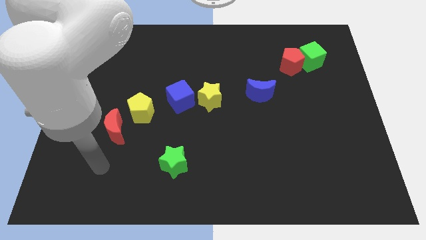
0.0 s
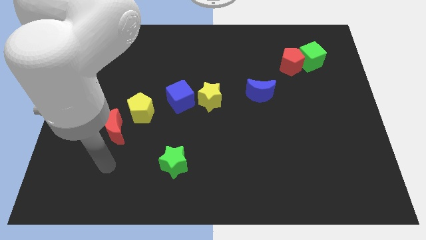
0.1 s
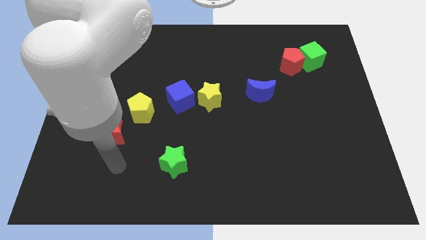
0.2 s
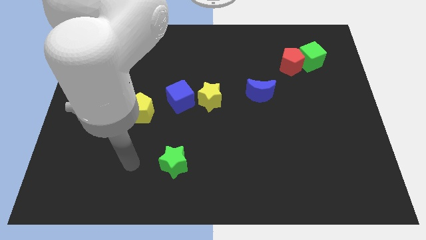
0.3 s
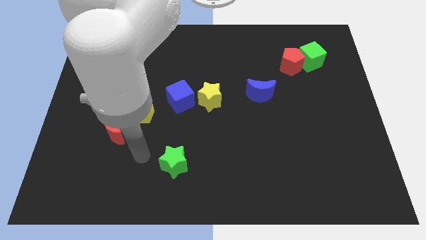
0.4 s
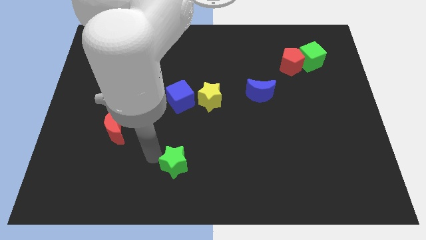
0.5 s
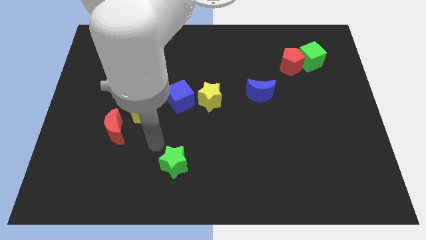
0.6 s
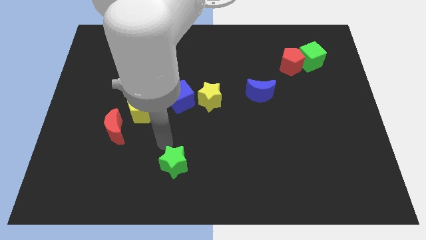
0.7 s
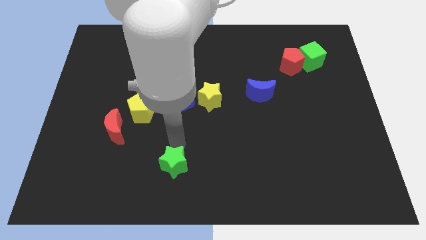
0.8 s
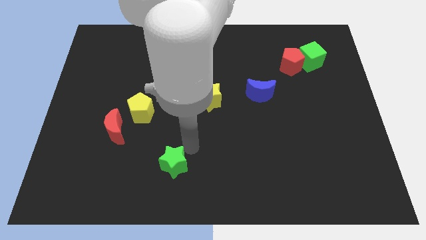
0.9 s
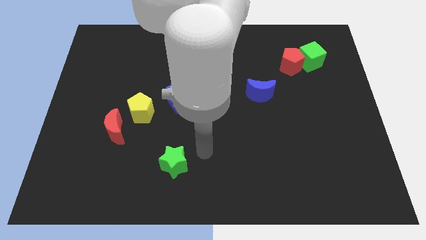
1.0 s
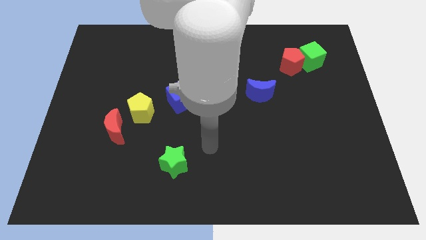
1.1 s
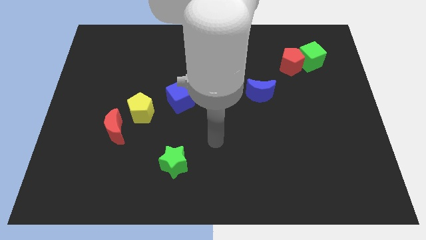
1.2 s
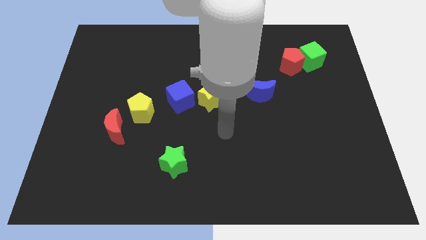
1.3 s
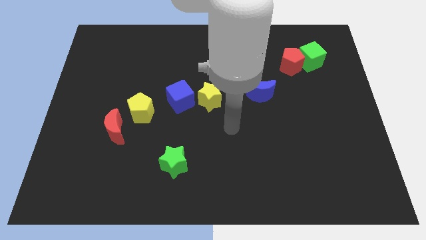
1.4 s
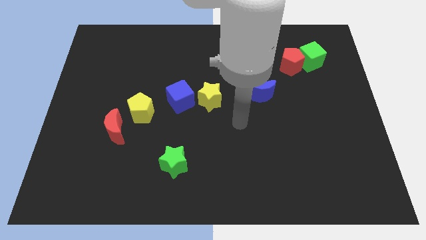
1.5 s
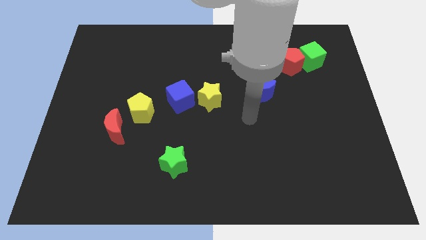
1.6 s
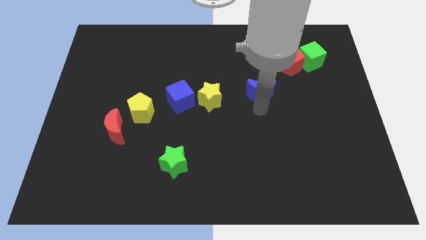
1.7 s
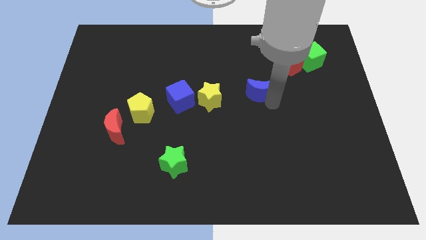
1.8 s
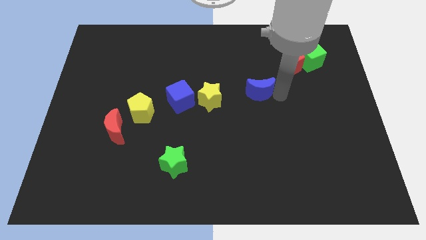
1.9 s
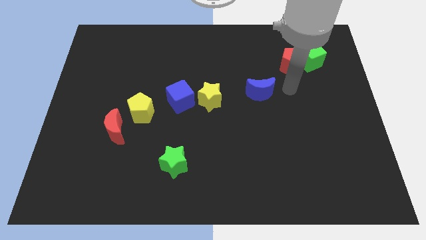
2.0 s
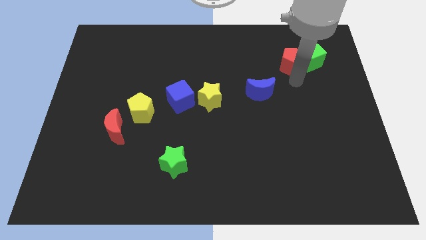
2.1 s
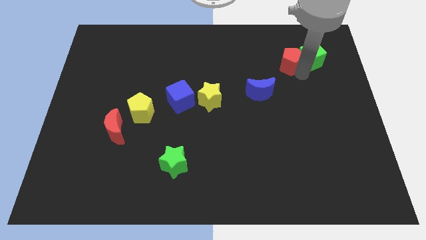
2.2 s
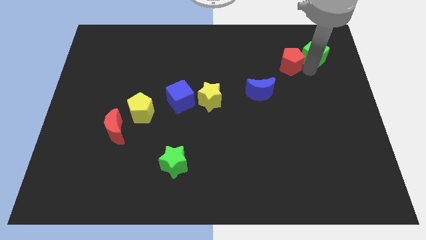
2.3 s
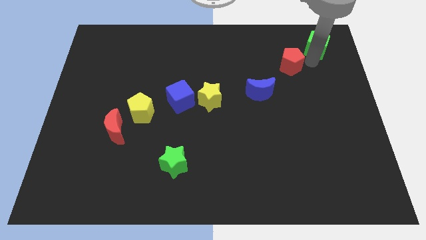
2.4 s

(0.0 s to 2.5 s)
move the red pentagon away from the green cube

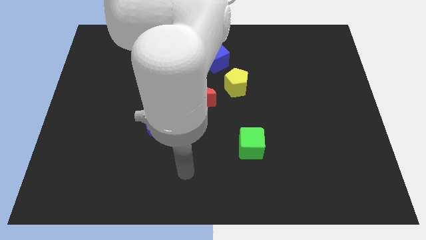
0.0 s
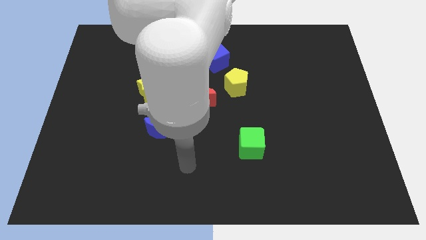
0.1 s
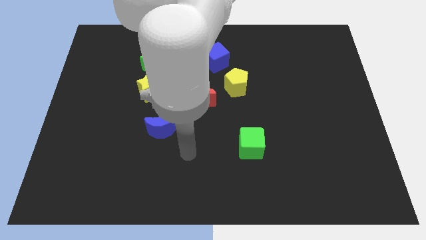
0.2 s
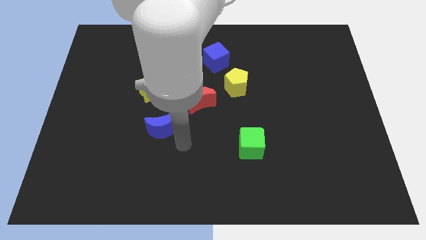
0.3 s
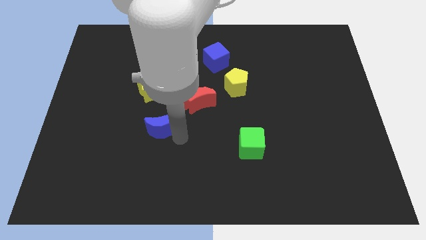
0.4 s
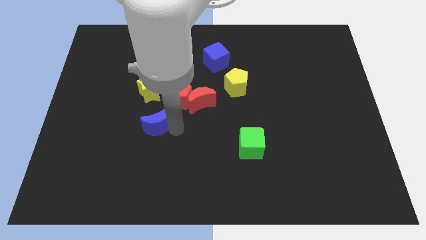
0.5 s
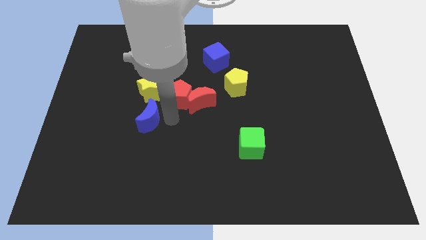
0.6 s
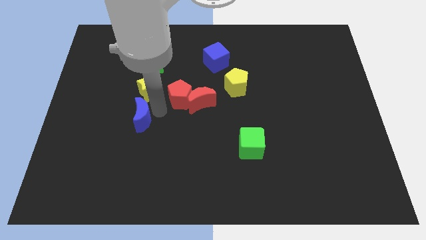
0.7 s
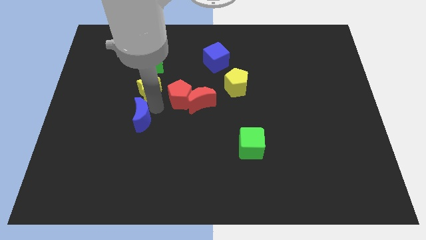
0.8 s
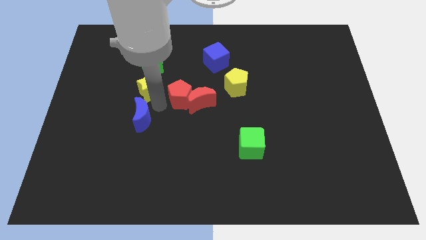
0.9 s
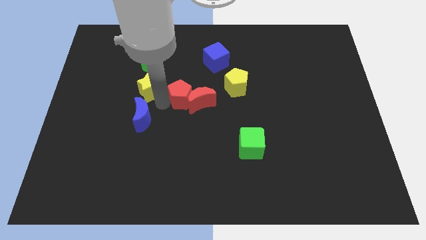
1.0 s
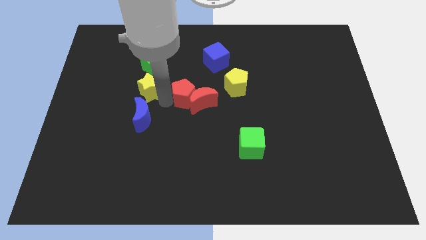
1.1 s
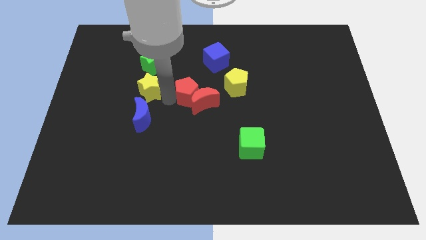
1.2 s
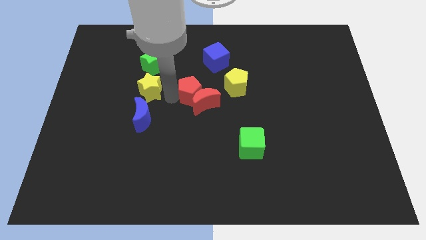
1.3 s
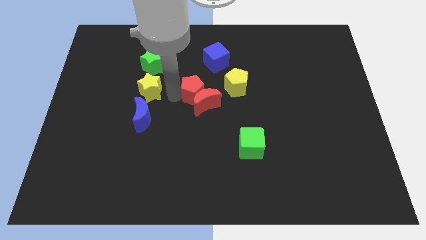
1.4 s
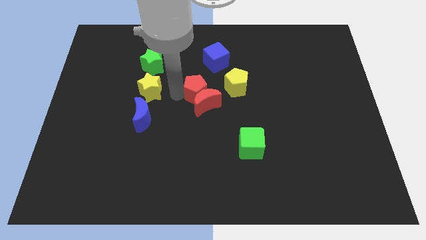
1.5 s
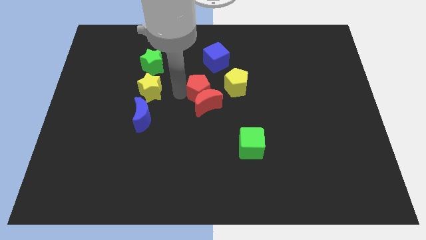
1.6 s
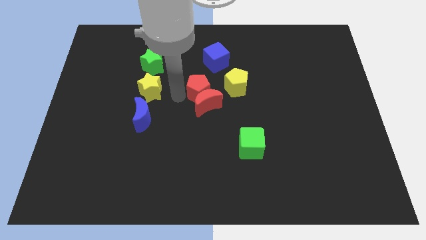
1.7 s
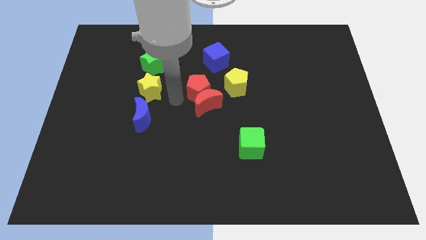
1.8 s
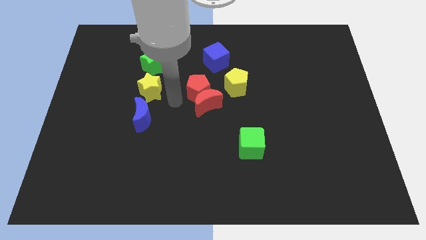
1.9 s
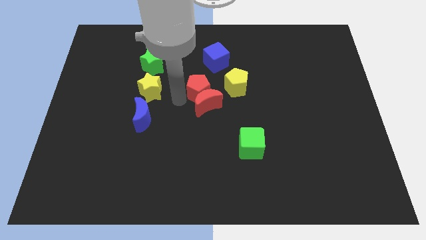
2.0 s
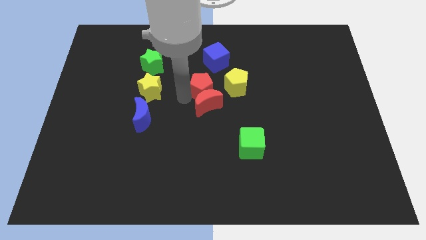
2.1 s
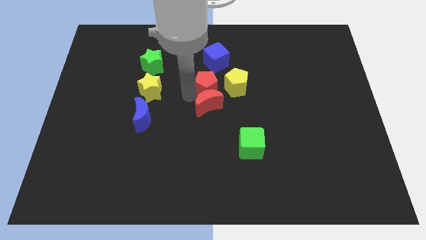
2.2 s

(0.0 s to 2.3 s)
pull the red pentagon apart from the red moon, yellow star, and blue moon

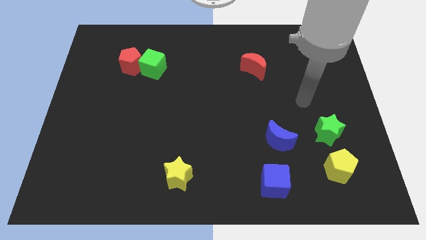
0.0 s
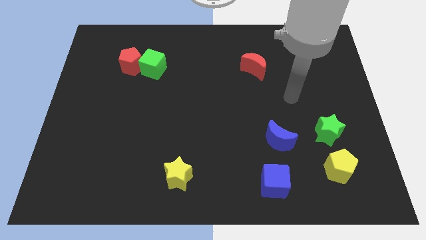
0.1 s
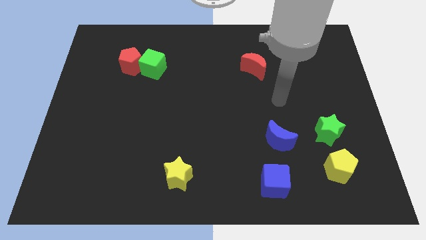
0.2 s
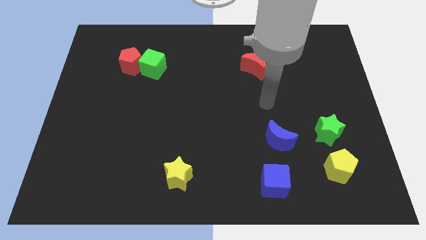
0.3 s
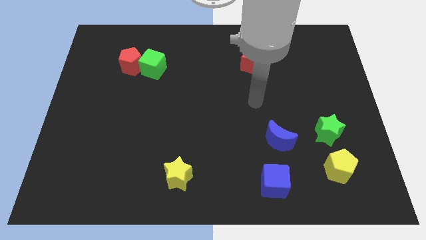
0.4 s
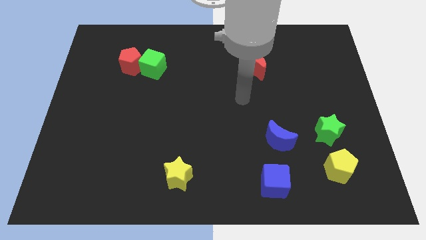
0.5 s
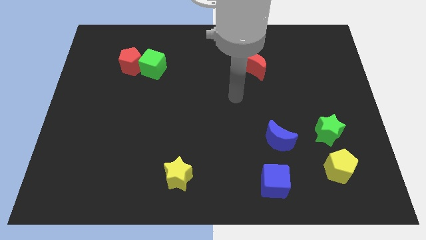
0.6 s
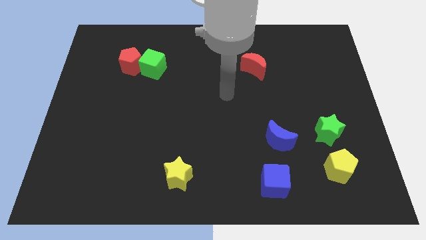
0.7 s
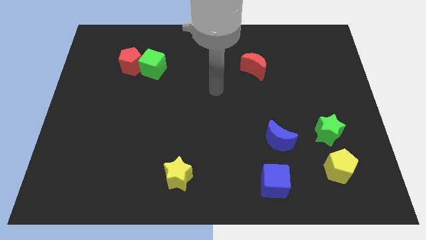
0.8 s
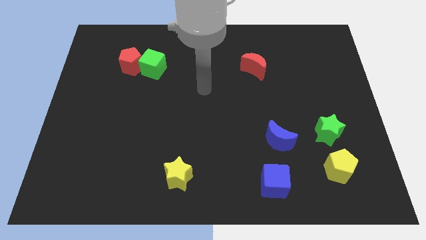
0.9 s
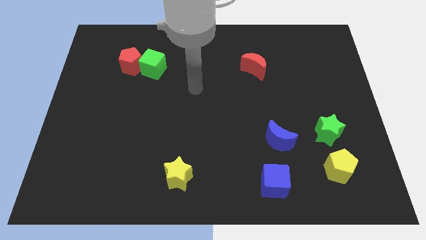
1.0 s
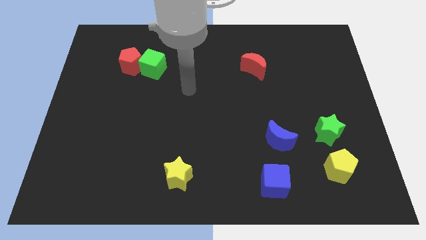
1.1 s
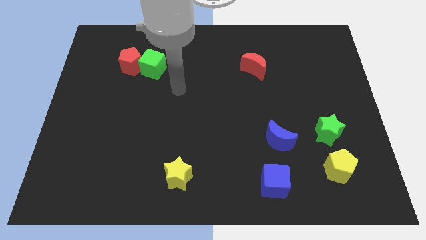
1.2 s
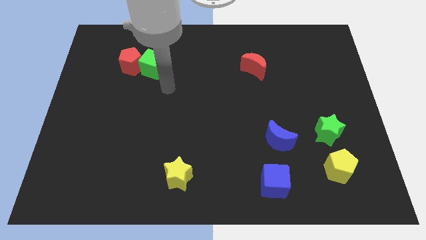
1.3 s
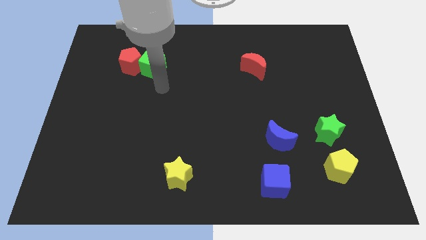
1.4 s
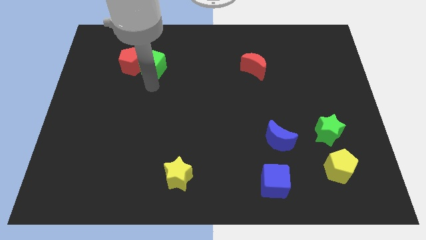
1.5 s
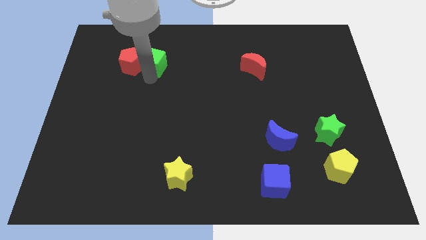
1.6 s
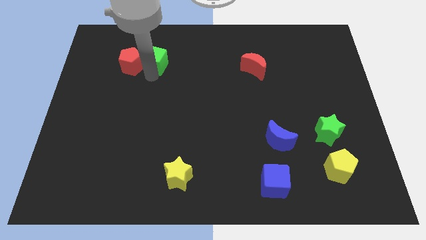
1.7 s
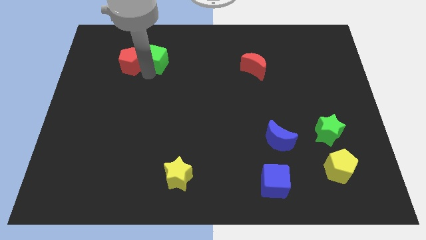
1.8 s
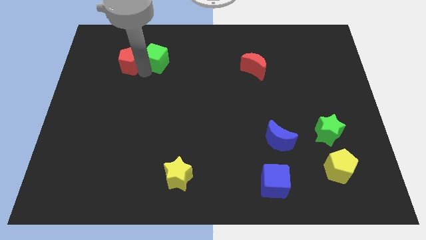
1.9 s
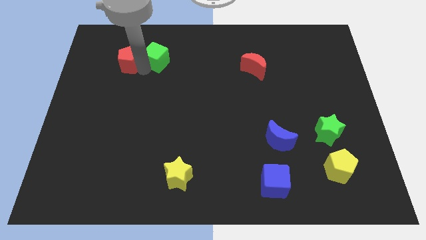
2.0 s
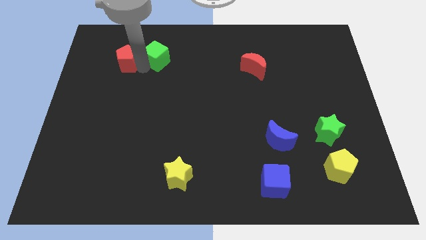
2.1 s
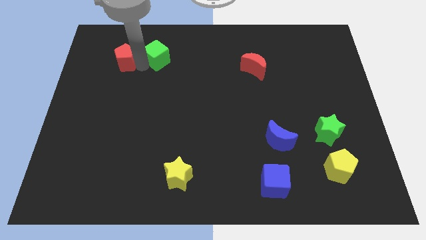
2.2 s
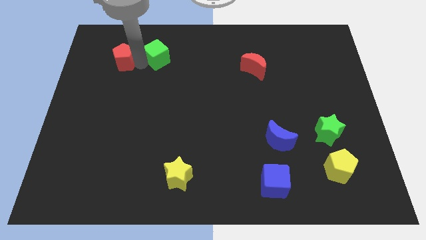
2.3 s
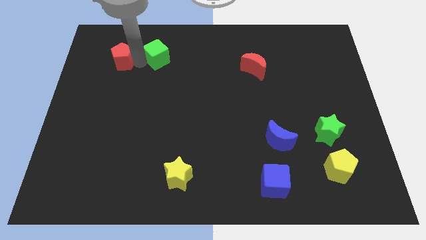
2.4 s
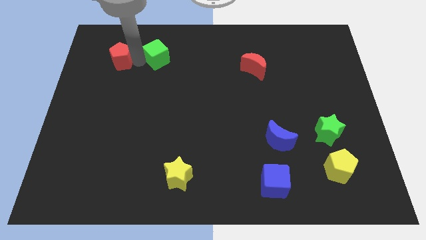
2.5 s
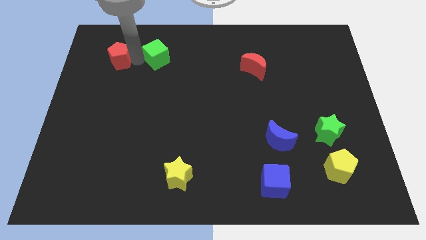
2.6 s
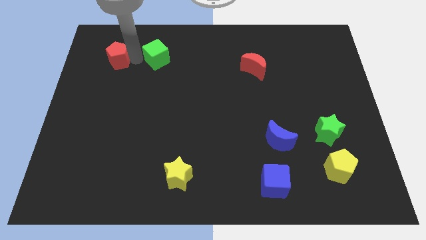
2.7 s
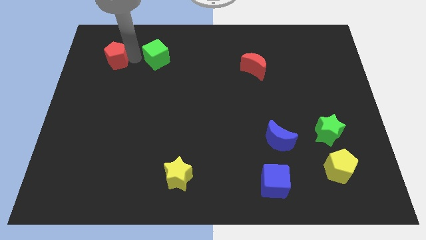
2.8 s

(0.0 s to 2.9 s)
pull the red pentagon apart from the green cube

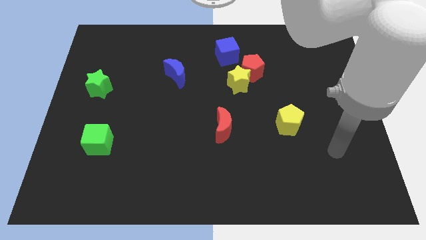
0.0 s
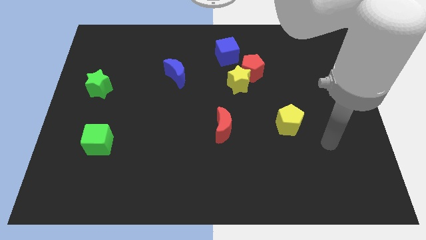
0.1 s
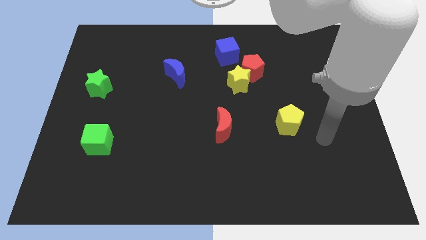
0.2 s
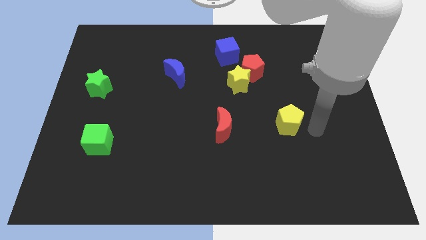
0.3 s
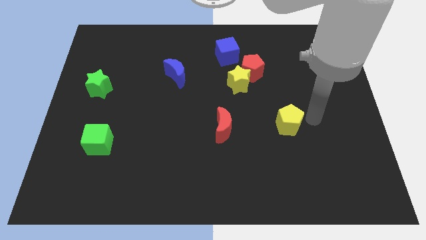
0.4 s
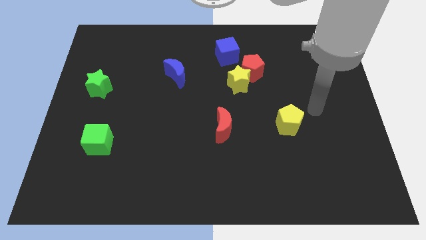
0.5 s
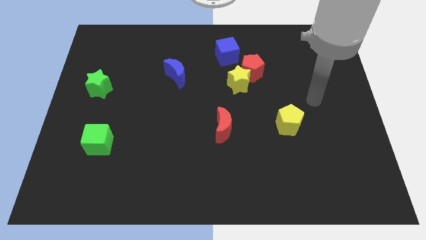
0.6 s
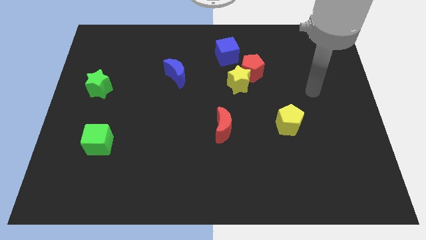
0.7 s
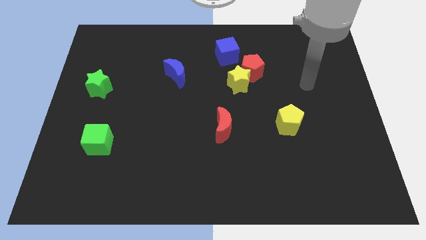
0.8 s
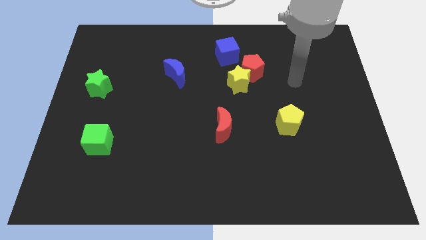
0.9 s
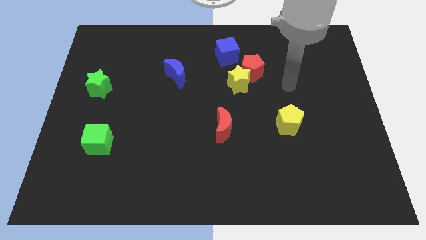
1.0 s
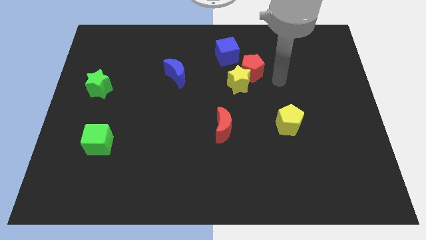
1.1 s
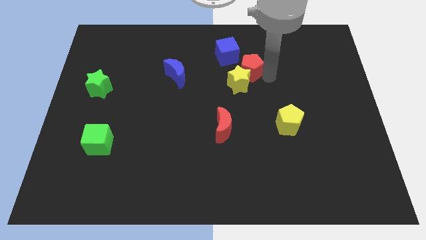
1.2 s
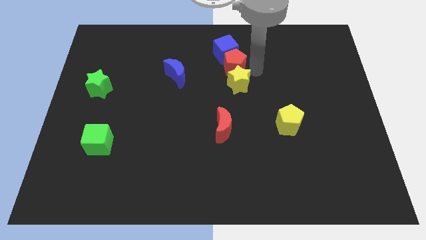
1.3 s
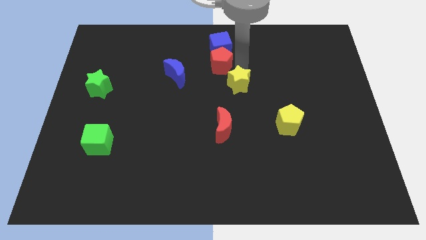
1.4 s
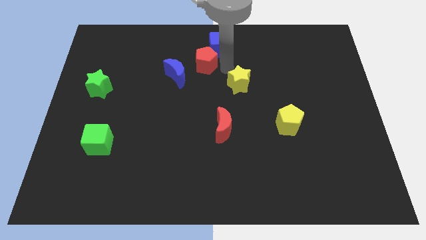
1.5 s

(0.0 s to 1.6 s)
separate the yellow star from the red pentagon
